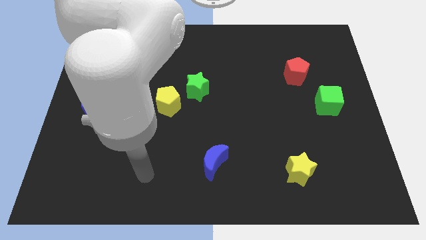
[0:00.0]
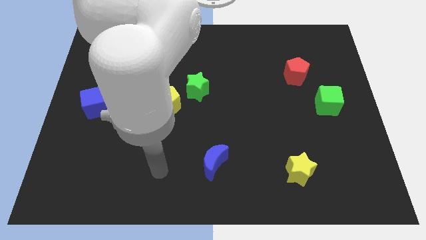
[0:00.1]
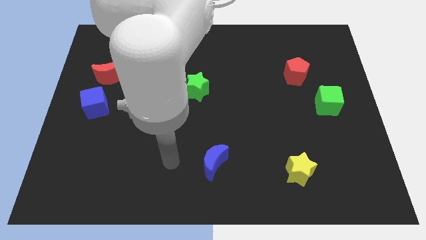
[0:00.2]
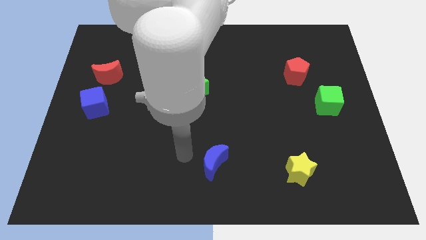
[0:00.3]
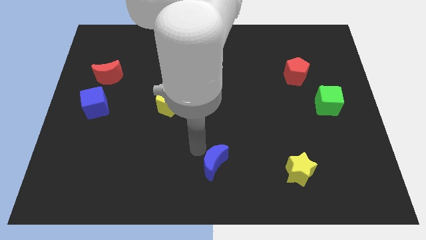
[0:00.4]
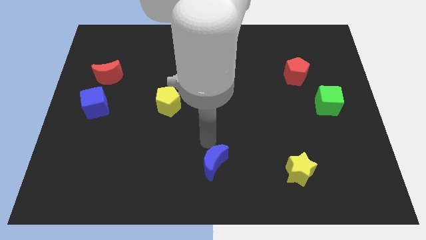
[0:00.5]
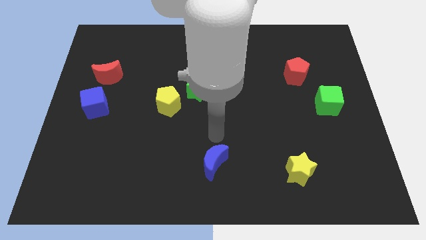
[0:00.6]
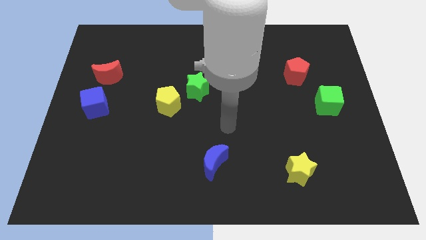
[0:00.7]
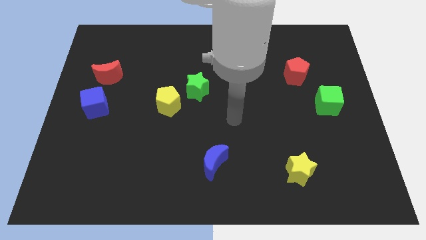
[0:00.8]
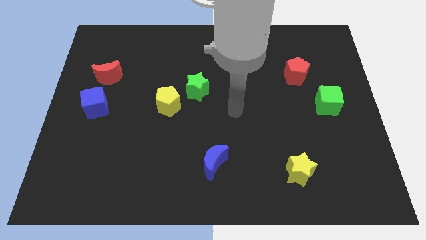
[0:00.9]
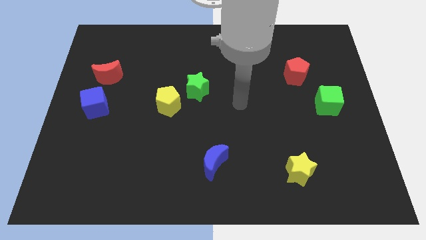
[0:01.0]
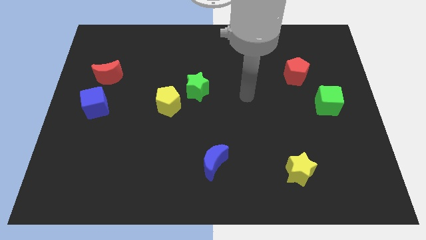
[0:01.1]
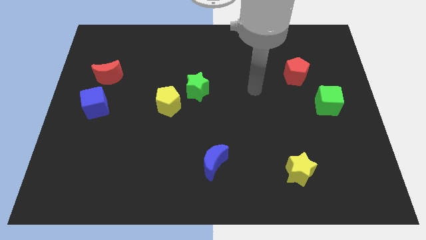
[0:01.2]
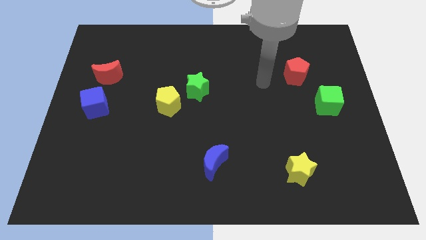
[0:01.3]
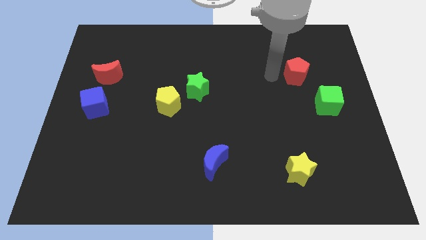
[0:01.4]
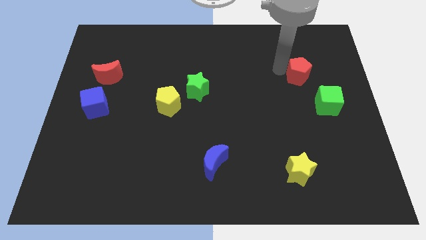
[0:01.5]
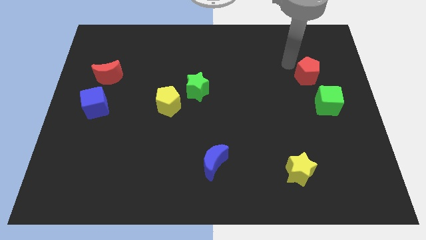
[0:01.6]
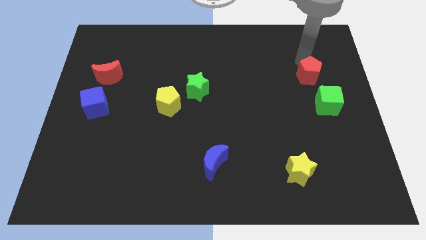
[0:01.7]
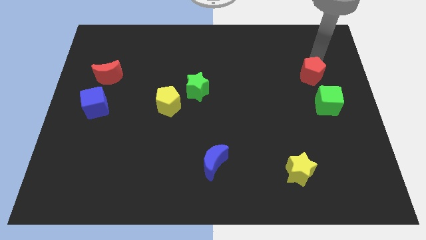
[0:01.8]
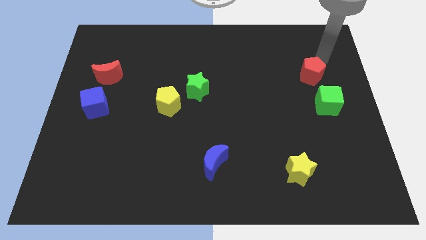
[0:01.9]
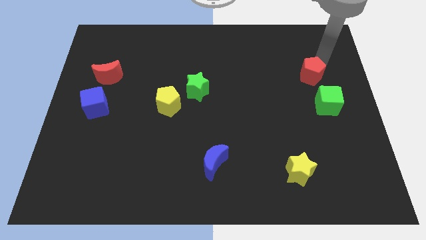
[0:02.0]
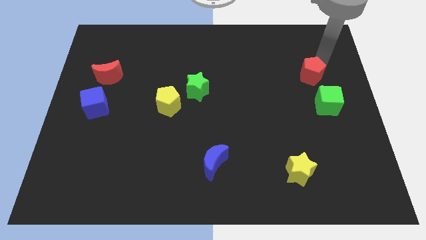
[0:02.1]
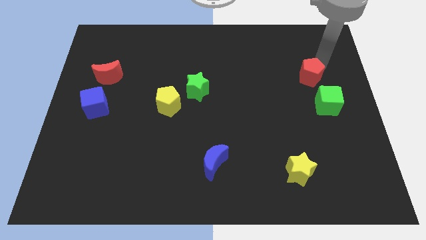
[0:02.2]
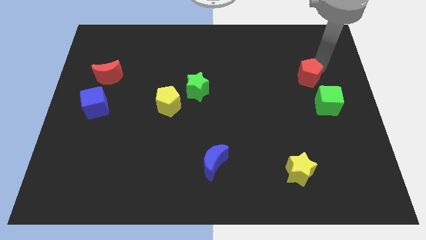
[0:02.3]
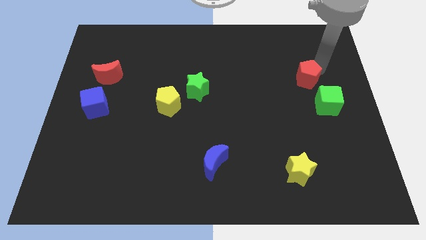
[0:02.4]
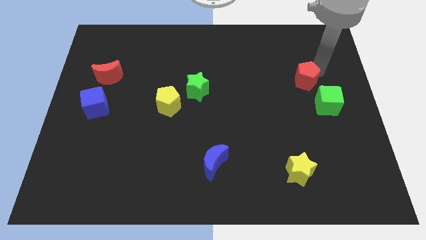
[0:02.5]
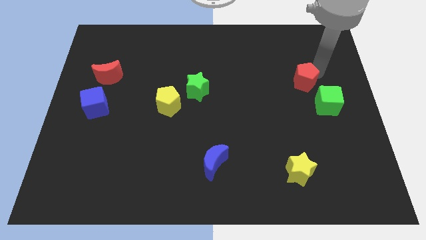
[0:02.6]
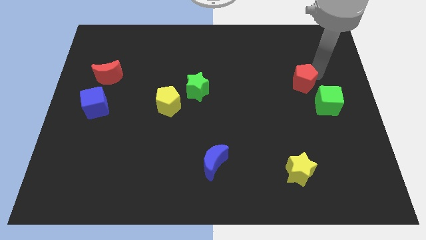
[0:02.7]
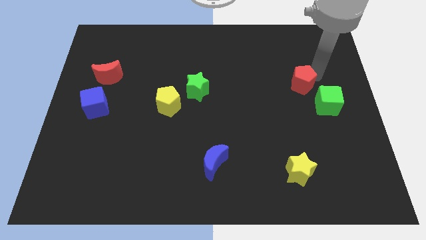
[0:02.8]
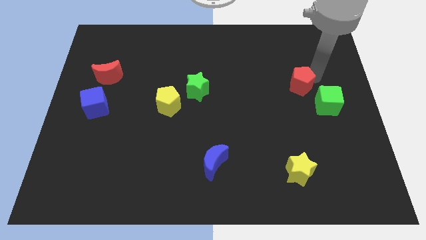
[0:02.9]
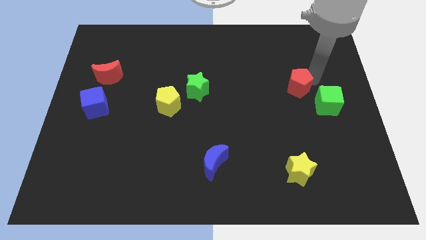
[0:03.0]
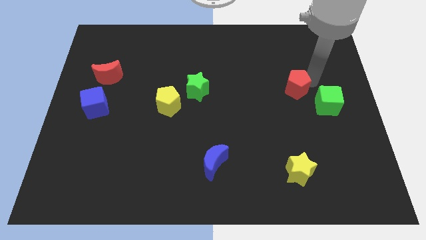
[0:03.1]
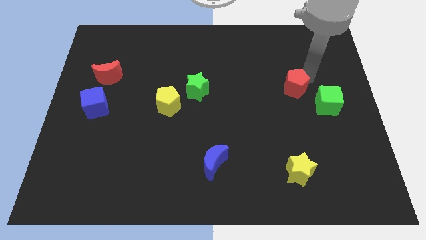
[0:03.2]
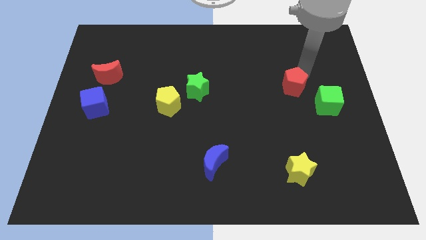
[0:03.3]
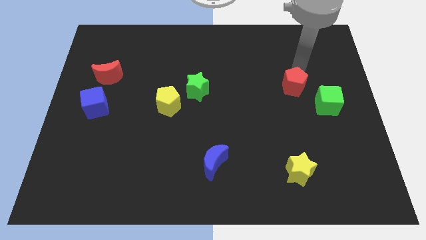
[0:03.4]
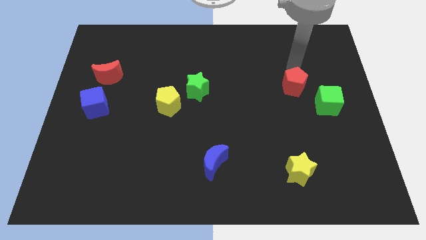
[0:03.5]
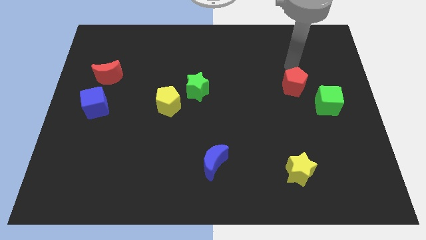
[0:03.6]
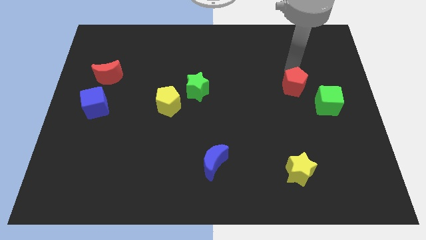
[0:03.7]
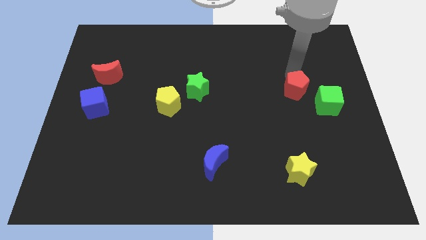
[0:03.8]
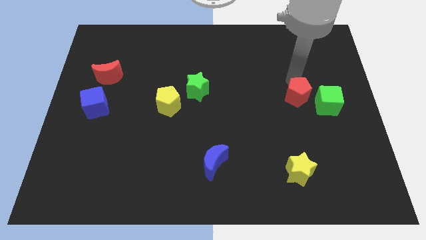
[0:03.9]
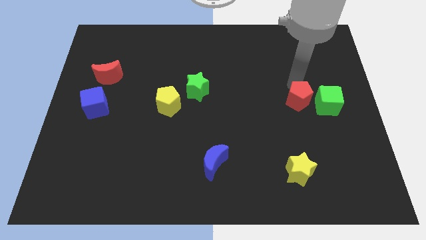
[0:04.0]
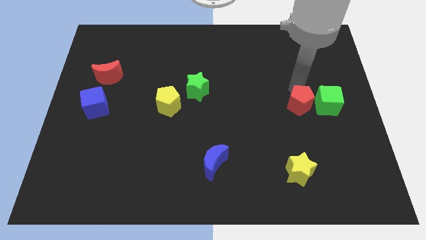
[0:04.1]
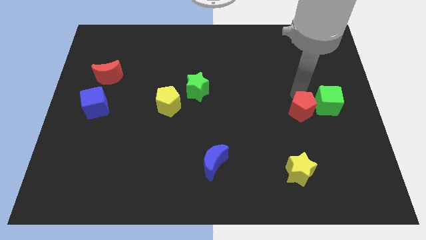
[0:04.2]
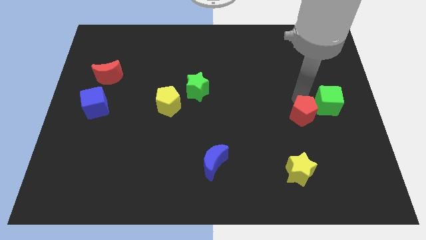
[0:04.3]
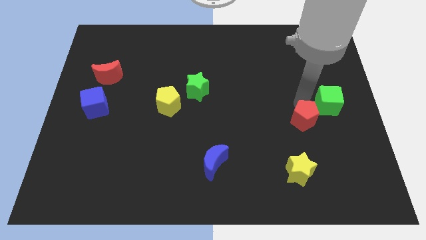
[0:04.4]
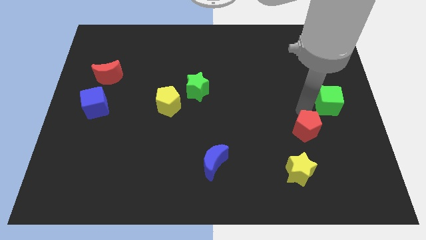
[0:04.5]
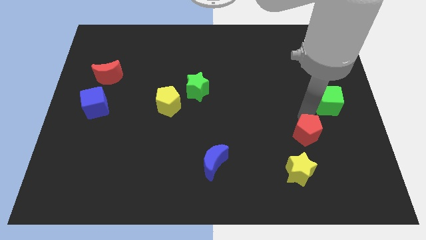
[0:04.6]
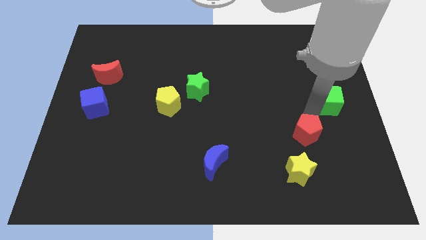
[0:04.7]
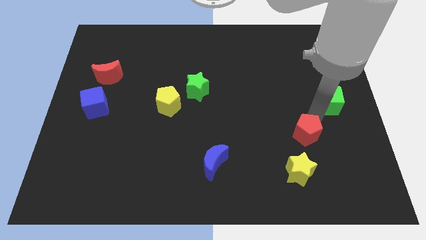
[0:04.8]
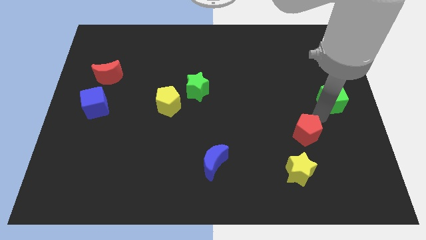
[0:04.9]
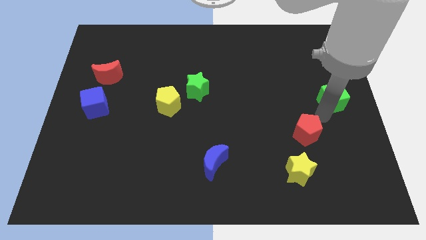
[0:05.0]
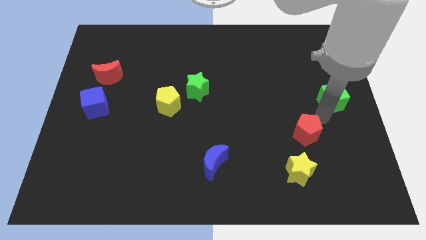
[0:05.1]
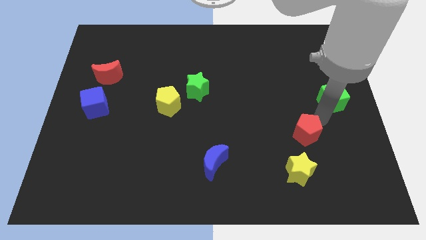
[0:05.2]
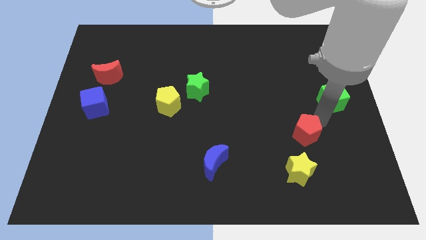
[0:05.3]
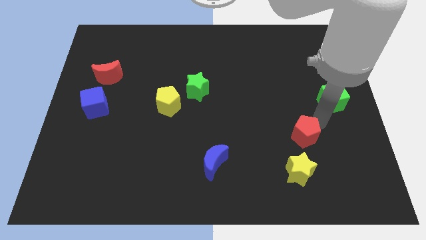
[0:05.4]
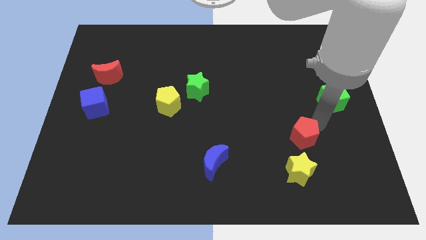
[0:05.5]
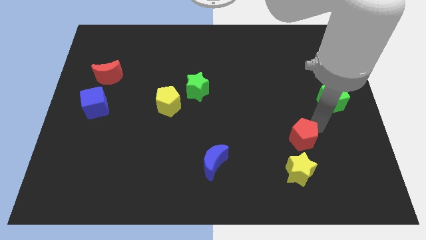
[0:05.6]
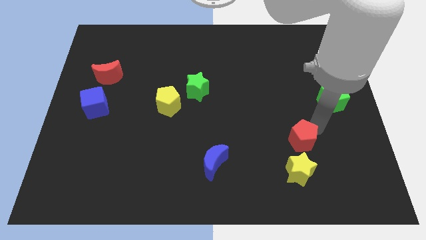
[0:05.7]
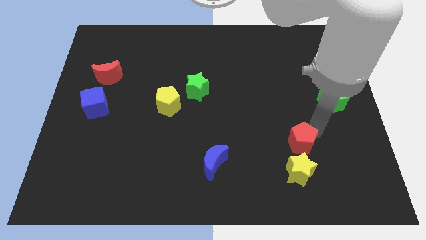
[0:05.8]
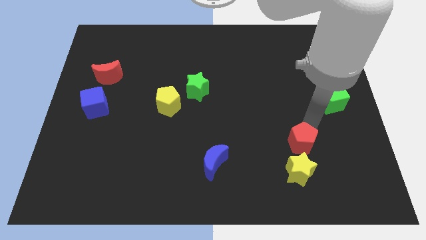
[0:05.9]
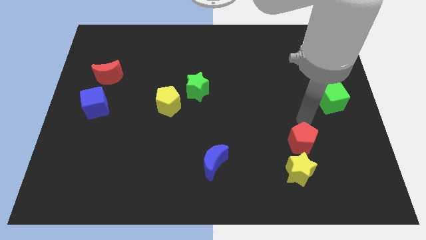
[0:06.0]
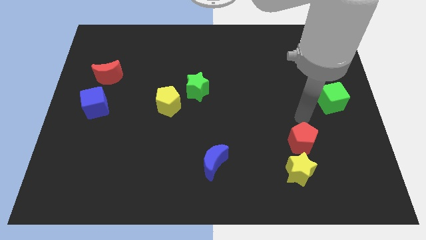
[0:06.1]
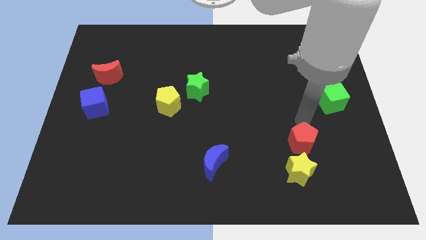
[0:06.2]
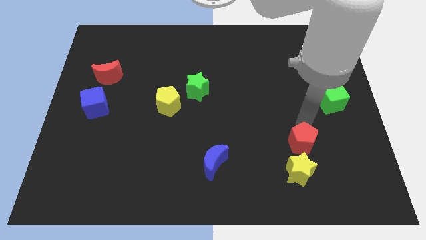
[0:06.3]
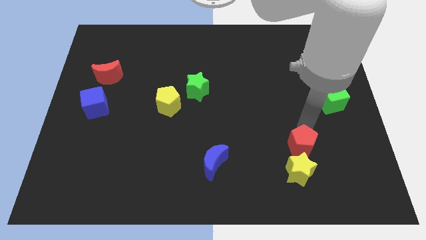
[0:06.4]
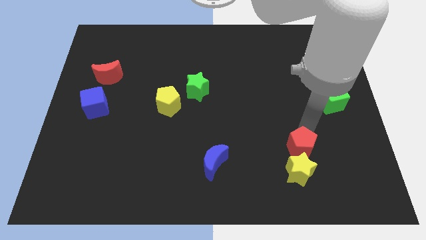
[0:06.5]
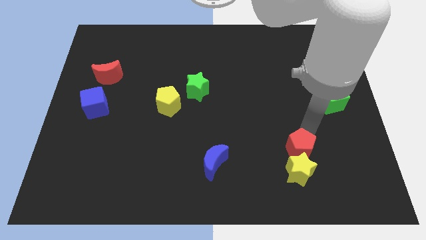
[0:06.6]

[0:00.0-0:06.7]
move the red pentagon close to the yellow star

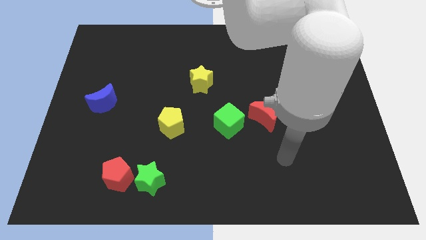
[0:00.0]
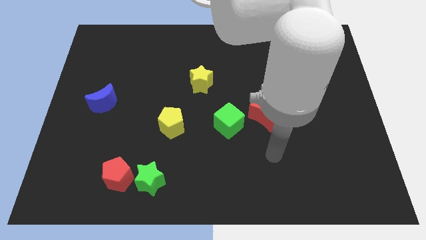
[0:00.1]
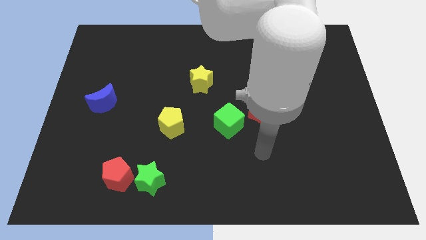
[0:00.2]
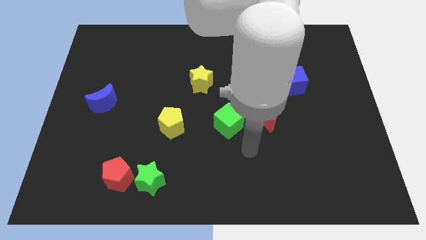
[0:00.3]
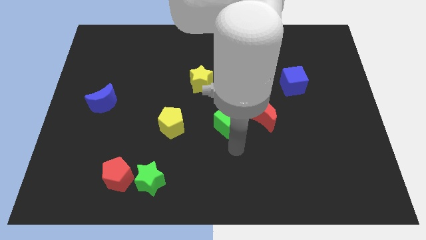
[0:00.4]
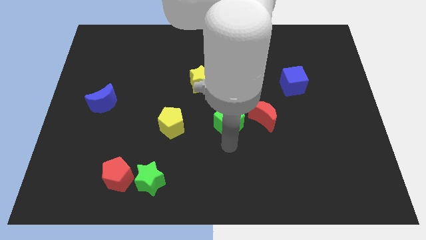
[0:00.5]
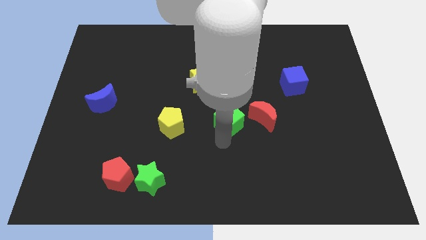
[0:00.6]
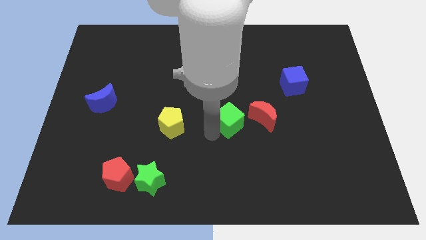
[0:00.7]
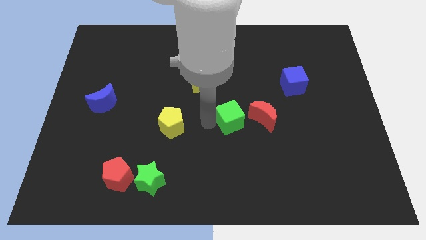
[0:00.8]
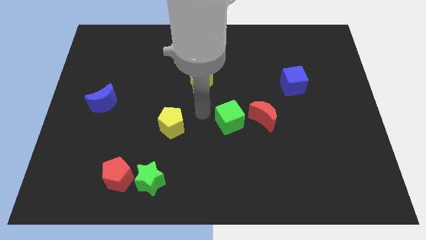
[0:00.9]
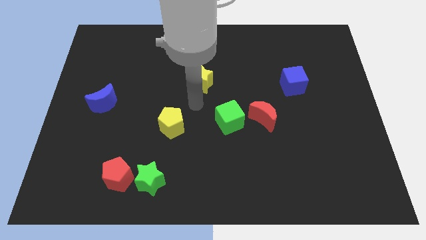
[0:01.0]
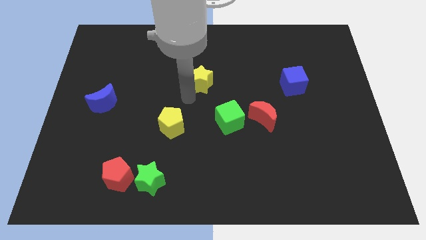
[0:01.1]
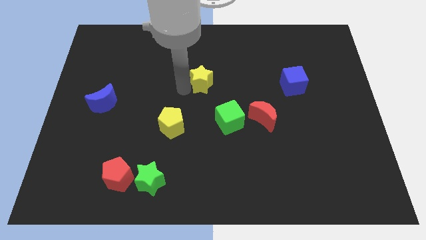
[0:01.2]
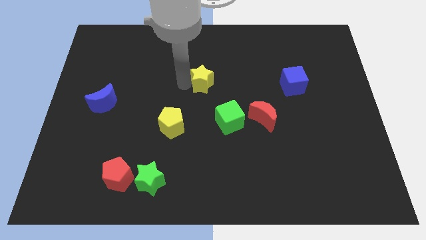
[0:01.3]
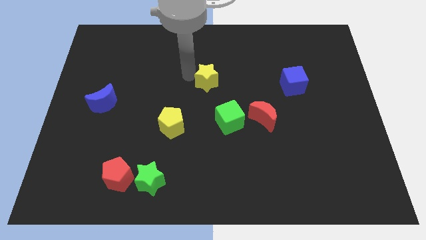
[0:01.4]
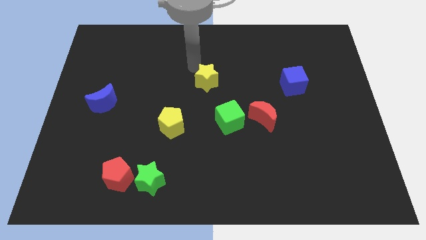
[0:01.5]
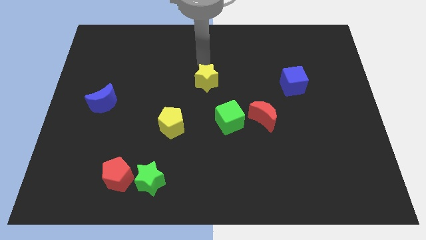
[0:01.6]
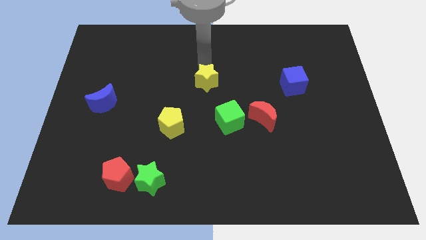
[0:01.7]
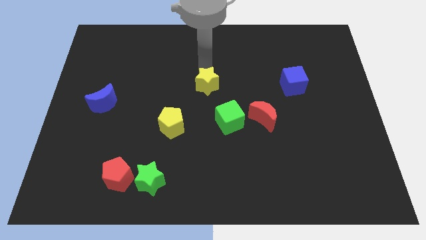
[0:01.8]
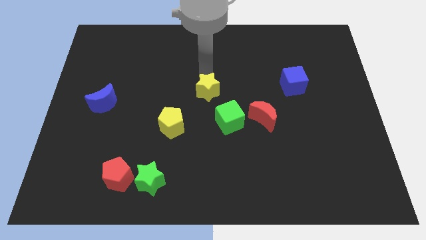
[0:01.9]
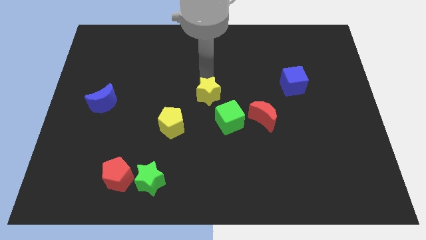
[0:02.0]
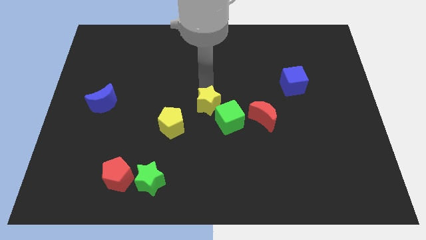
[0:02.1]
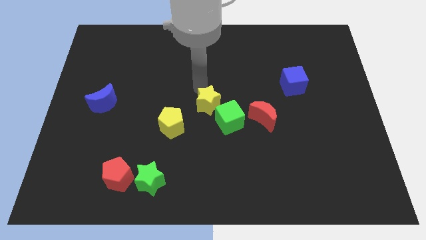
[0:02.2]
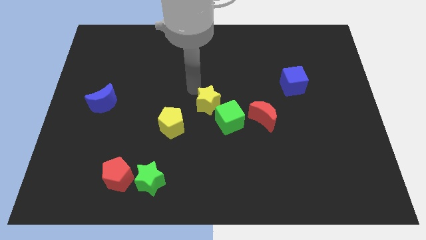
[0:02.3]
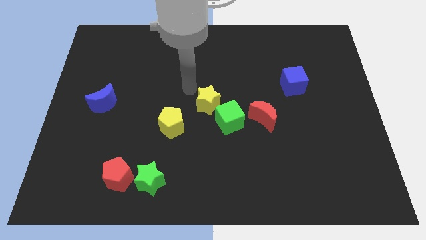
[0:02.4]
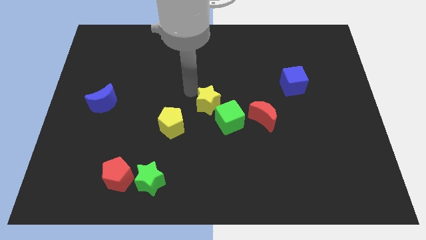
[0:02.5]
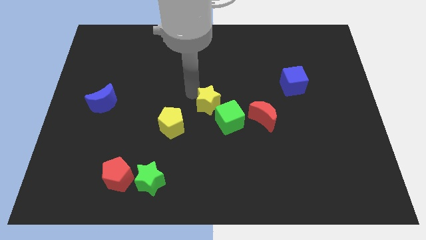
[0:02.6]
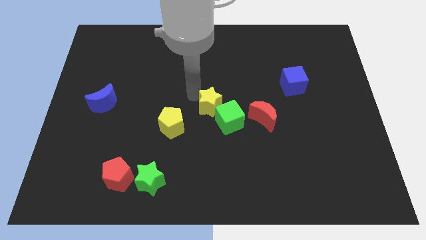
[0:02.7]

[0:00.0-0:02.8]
move the yellow star next to the green cube
